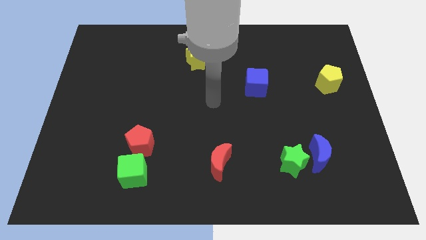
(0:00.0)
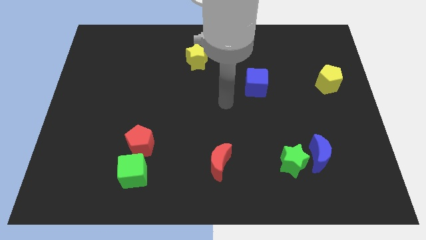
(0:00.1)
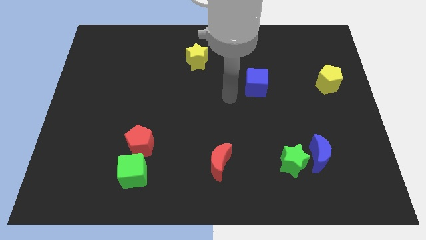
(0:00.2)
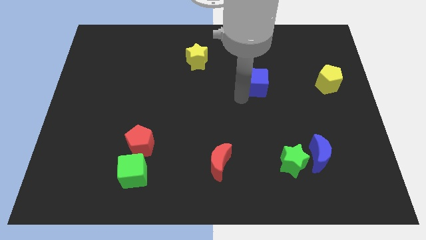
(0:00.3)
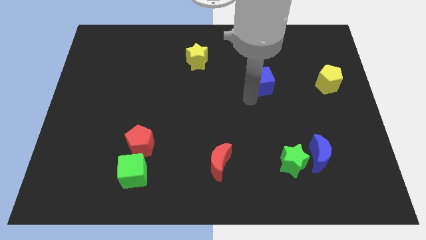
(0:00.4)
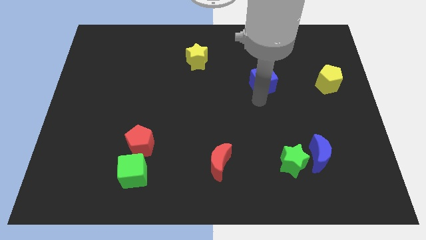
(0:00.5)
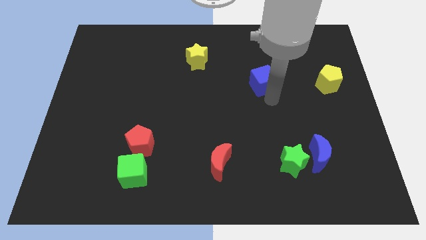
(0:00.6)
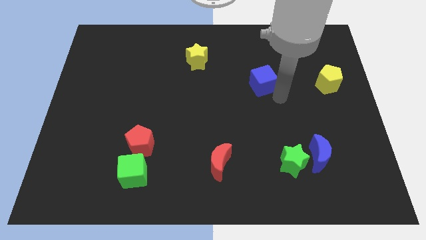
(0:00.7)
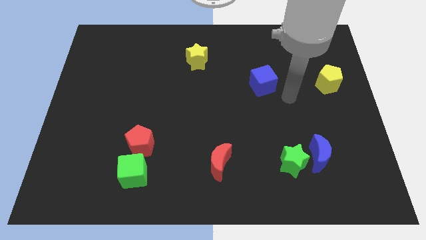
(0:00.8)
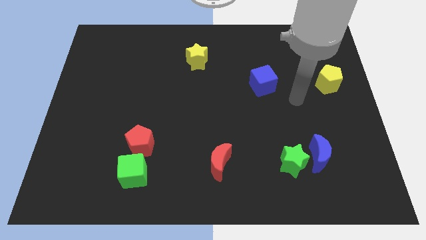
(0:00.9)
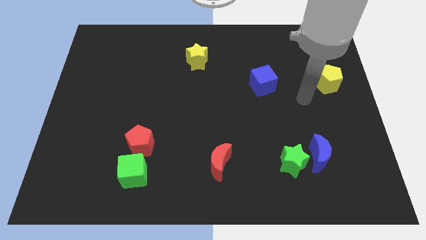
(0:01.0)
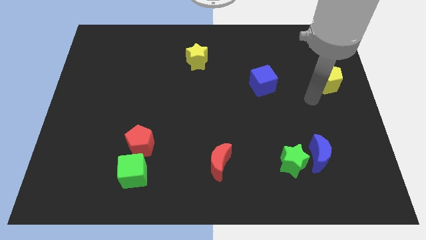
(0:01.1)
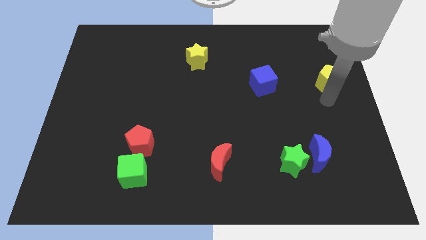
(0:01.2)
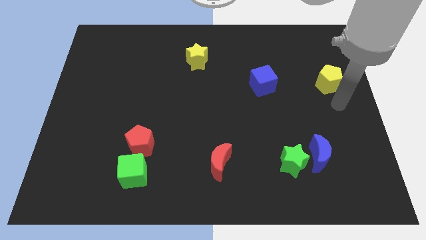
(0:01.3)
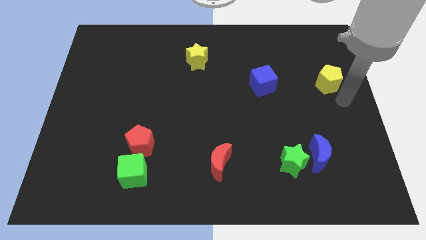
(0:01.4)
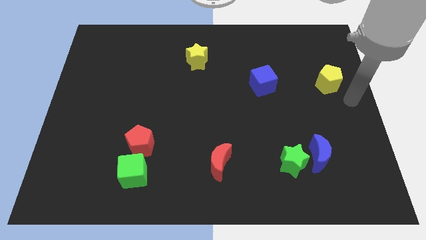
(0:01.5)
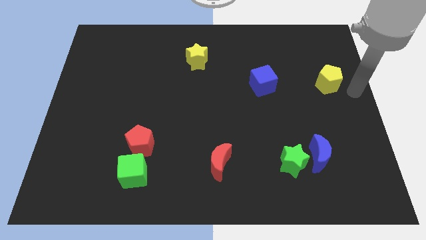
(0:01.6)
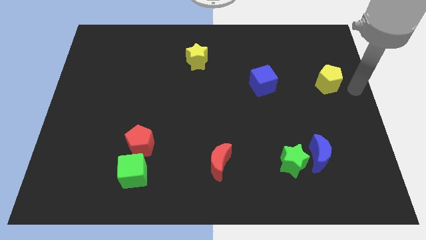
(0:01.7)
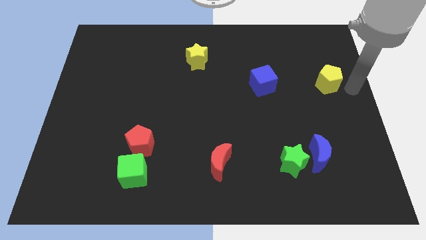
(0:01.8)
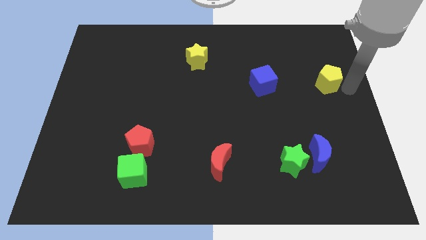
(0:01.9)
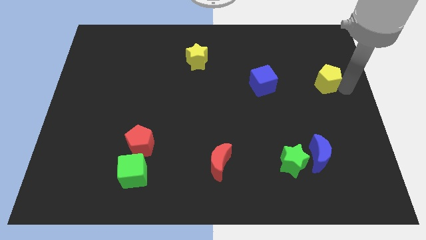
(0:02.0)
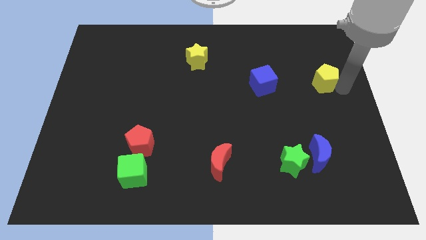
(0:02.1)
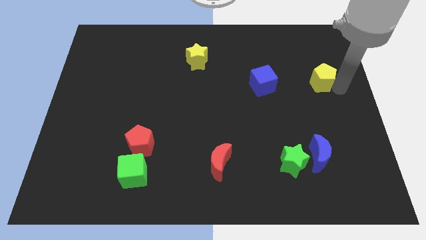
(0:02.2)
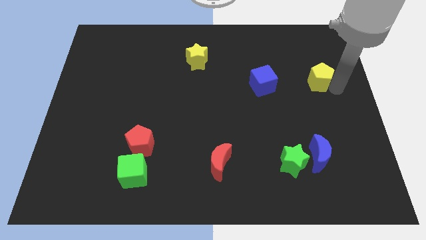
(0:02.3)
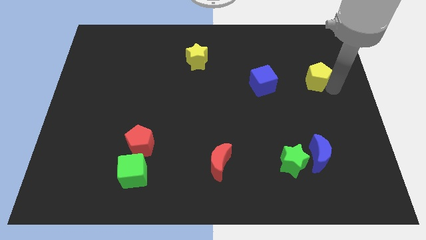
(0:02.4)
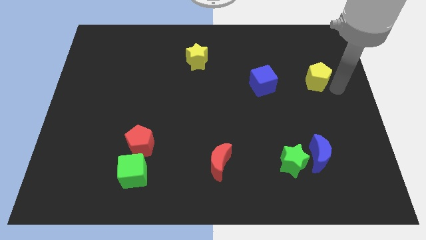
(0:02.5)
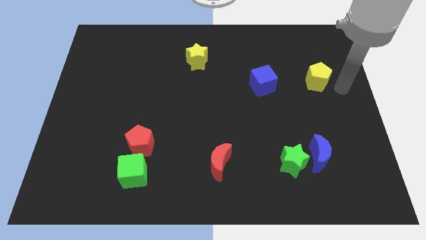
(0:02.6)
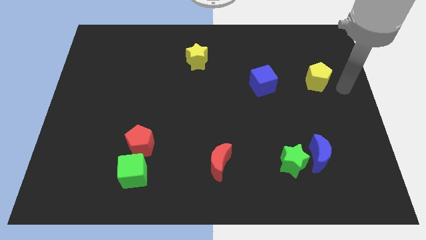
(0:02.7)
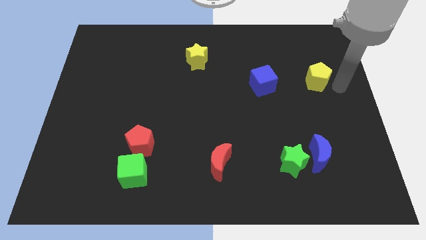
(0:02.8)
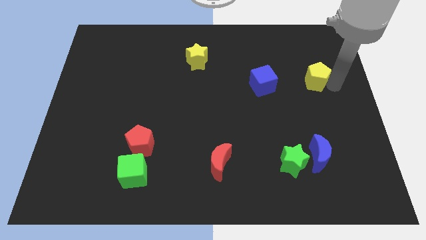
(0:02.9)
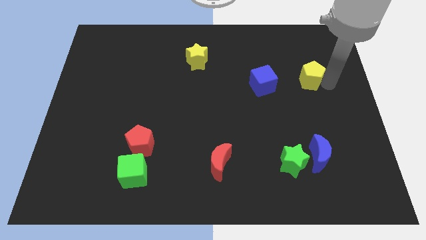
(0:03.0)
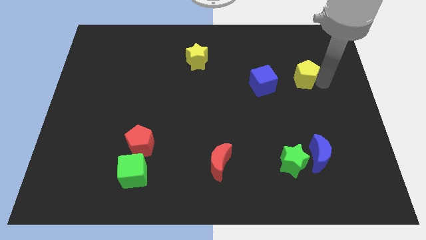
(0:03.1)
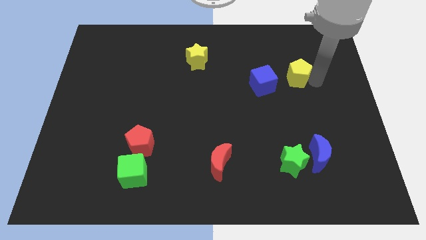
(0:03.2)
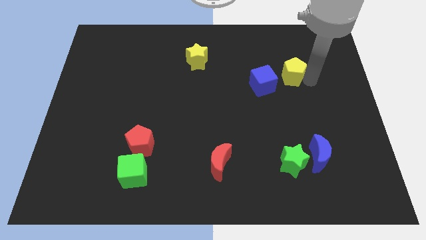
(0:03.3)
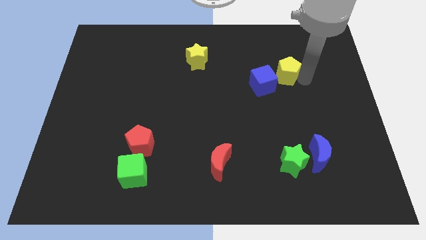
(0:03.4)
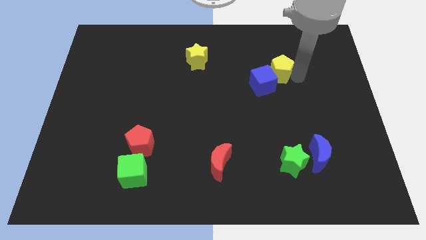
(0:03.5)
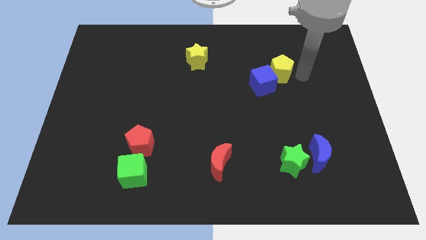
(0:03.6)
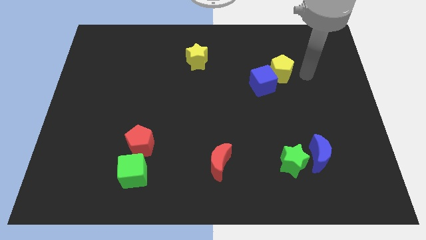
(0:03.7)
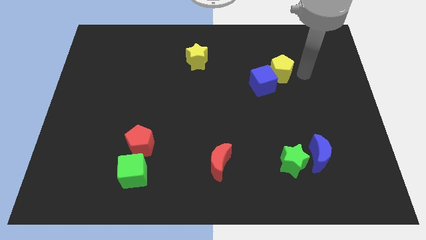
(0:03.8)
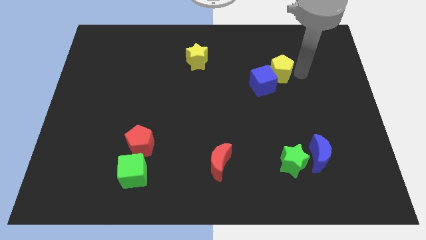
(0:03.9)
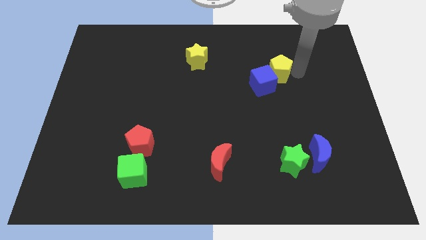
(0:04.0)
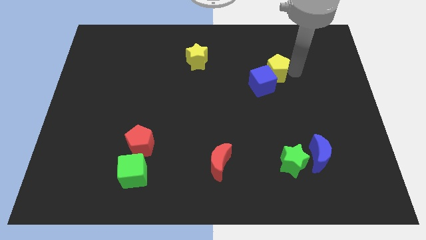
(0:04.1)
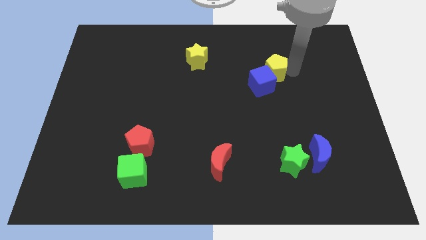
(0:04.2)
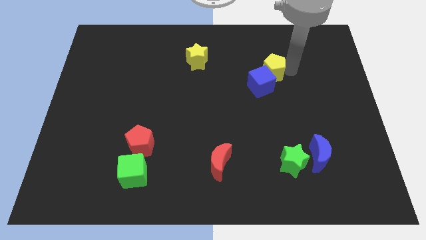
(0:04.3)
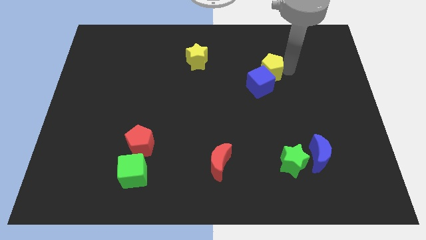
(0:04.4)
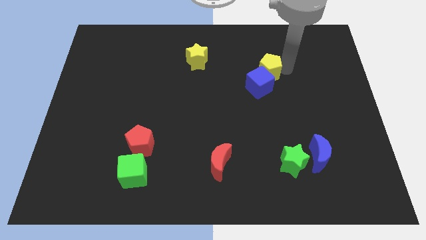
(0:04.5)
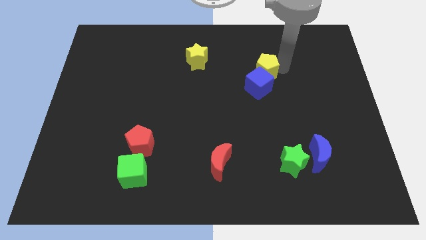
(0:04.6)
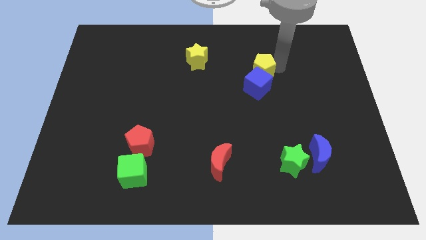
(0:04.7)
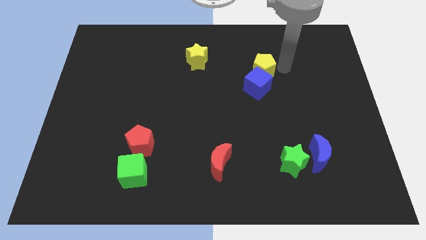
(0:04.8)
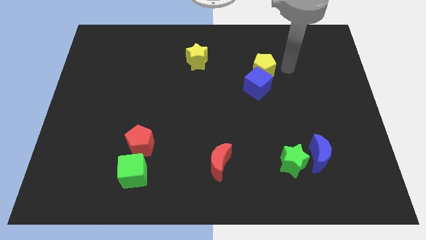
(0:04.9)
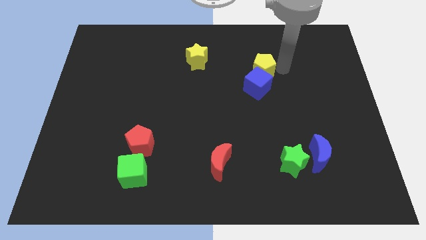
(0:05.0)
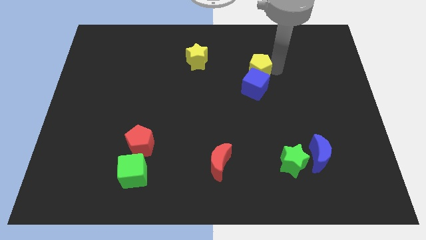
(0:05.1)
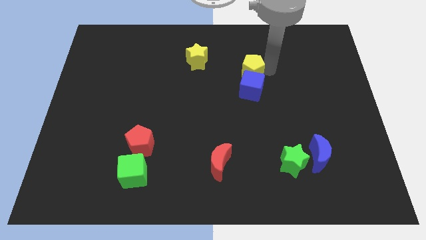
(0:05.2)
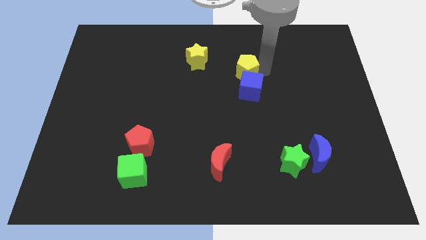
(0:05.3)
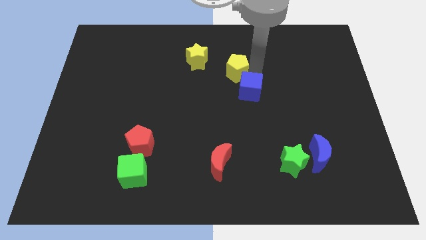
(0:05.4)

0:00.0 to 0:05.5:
move the yellow pentagon left

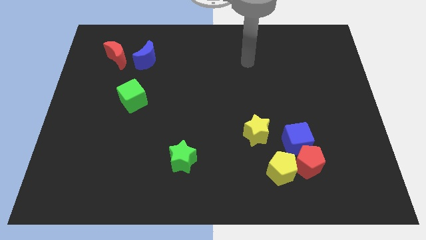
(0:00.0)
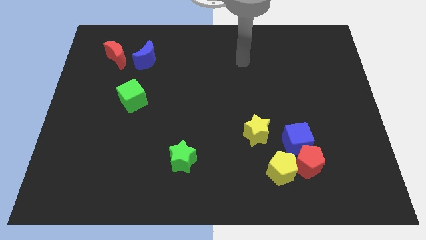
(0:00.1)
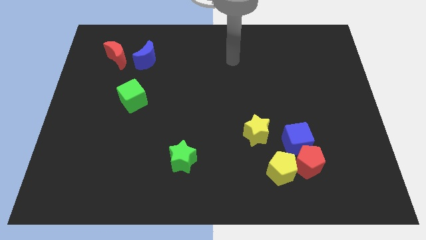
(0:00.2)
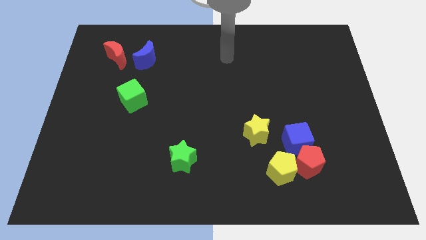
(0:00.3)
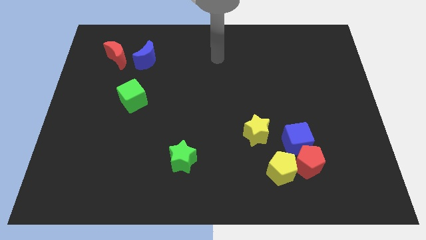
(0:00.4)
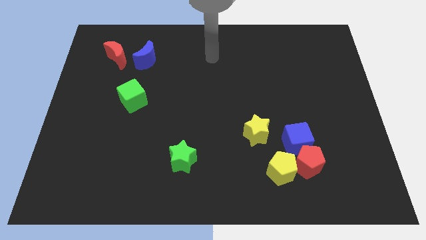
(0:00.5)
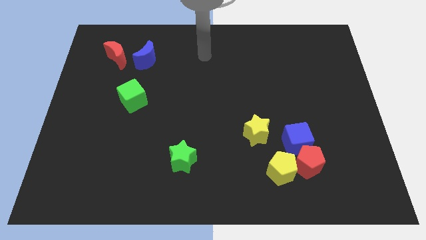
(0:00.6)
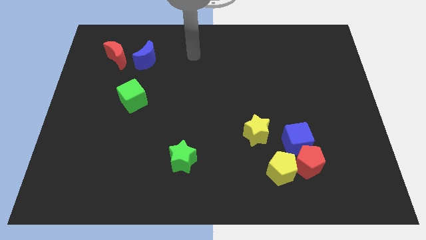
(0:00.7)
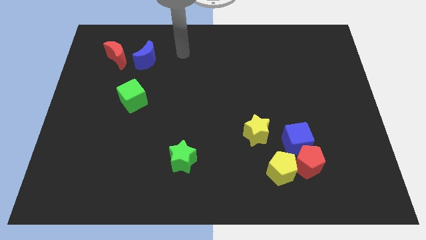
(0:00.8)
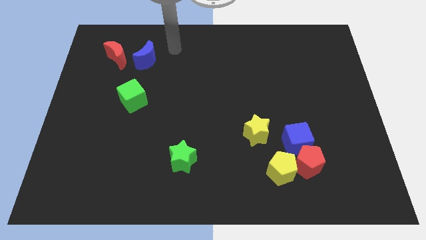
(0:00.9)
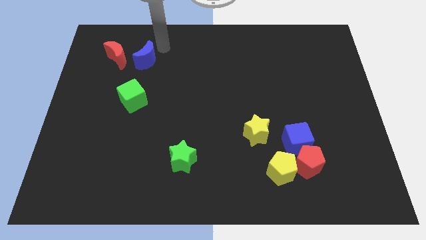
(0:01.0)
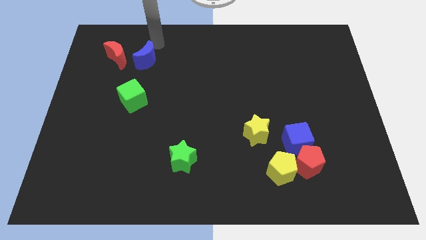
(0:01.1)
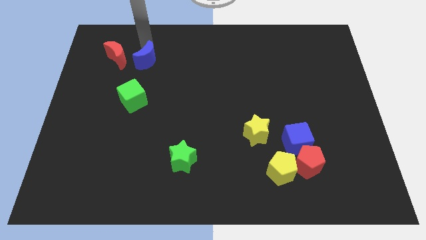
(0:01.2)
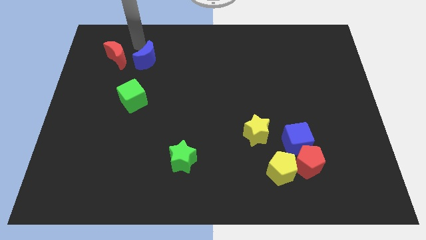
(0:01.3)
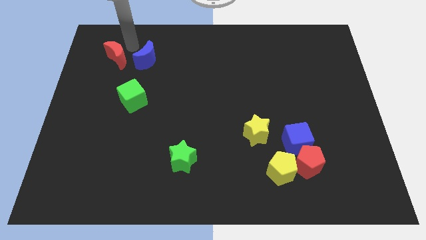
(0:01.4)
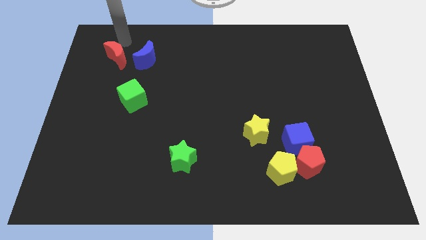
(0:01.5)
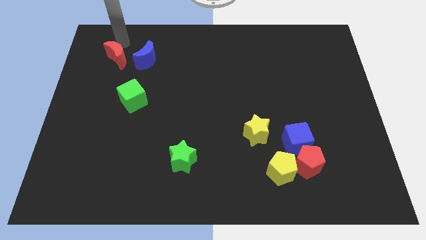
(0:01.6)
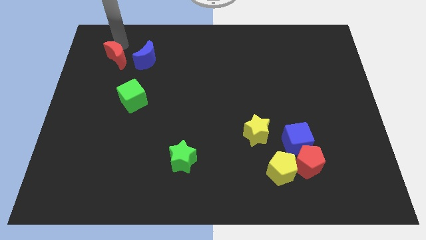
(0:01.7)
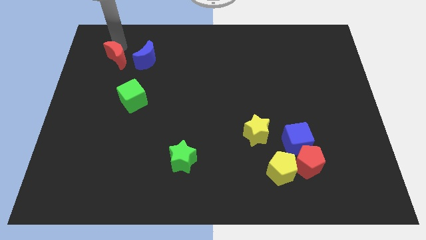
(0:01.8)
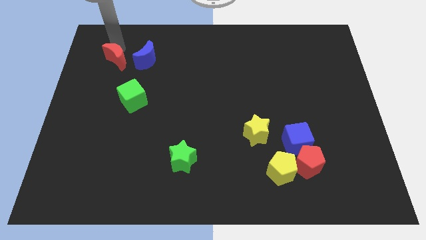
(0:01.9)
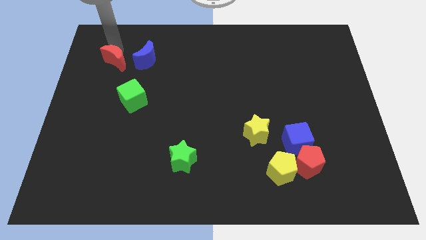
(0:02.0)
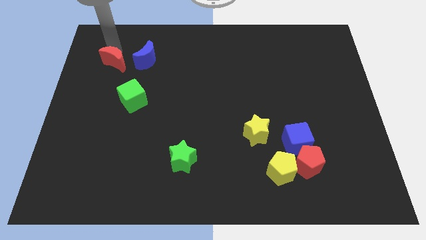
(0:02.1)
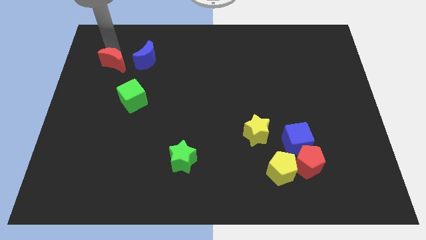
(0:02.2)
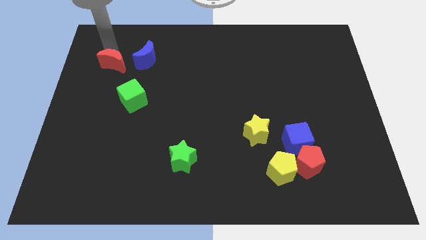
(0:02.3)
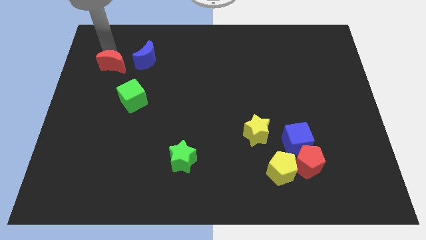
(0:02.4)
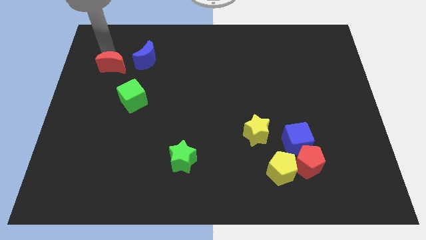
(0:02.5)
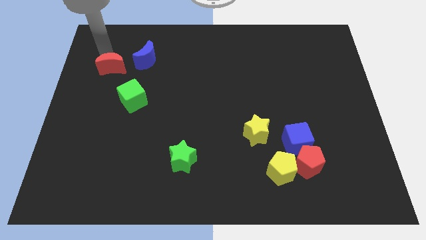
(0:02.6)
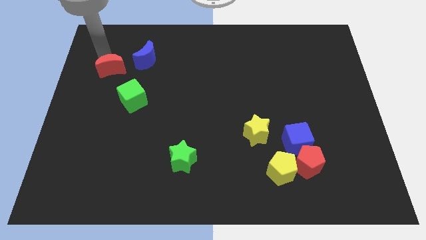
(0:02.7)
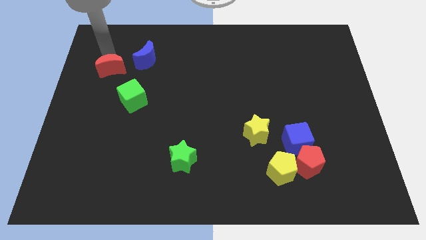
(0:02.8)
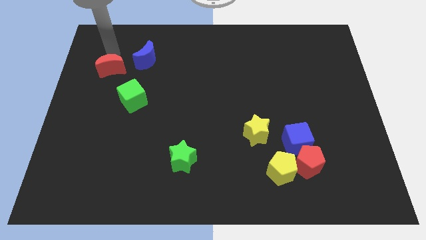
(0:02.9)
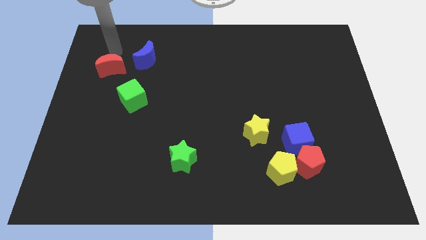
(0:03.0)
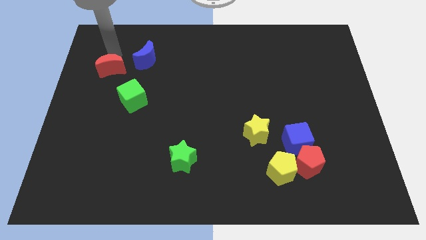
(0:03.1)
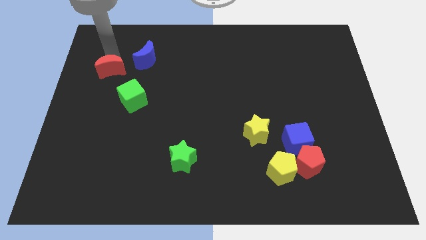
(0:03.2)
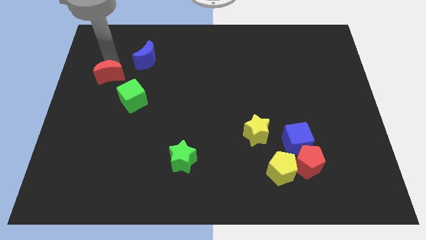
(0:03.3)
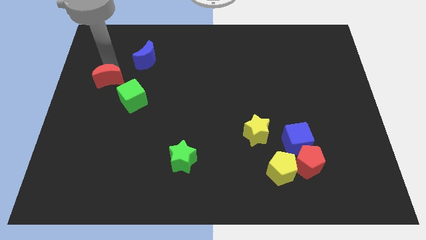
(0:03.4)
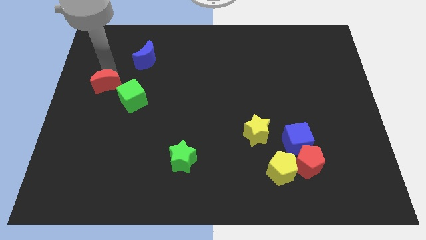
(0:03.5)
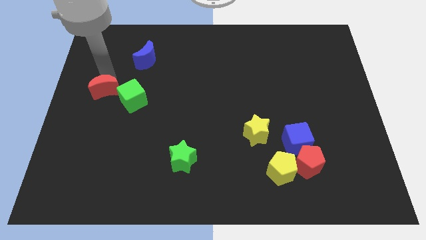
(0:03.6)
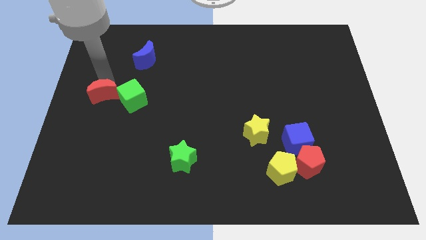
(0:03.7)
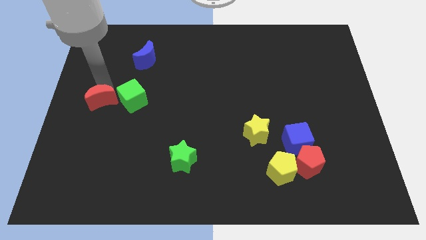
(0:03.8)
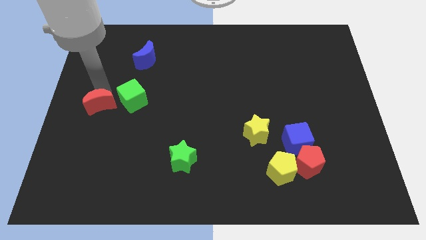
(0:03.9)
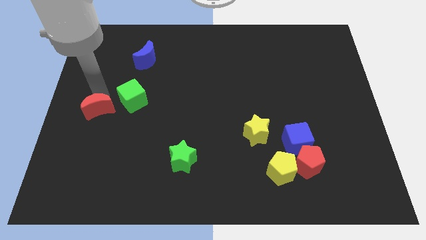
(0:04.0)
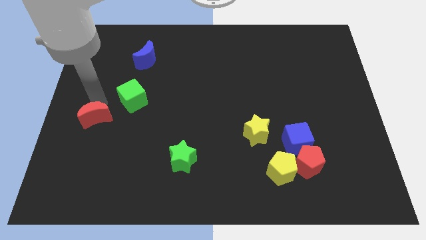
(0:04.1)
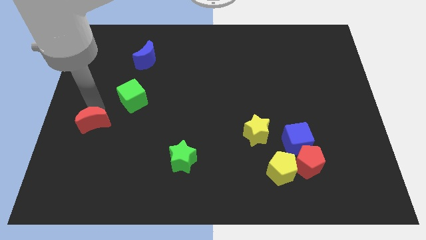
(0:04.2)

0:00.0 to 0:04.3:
push the red moon downwards
